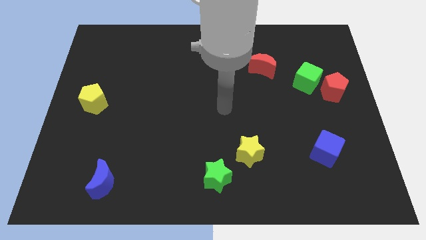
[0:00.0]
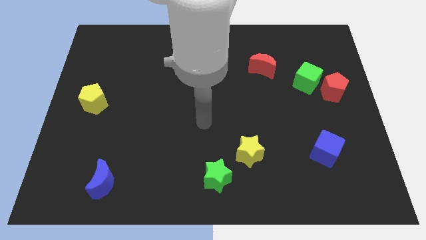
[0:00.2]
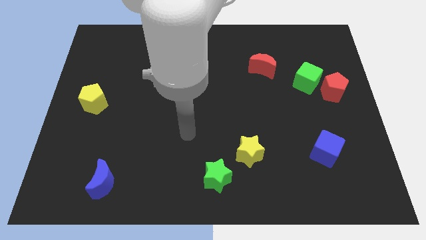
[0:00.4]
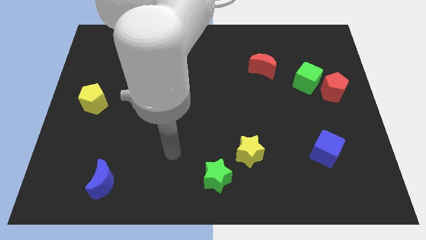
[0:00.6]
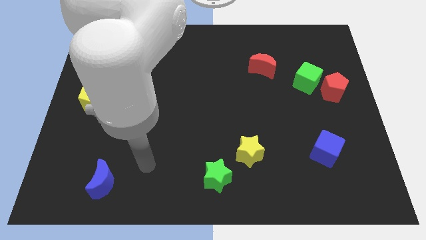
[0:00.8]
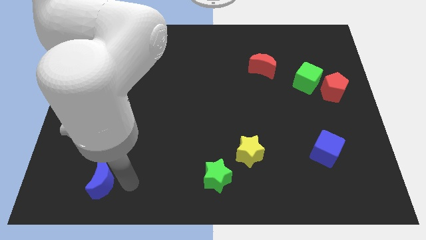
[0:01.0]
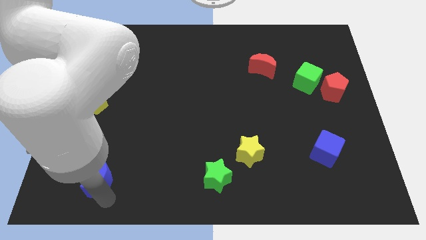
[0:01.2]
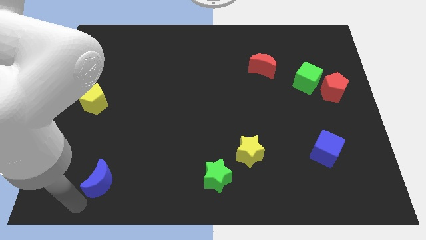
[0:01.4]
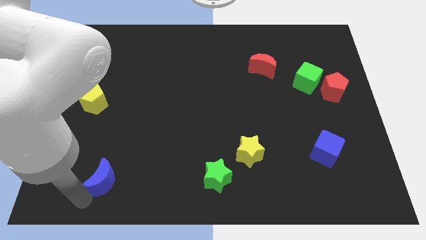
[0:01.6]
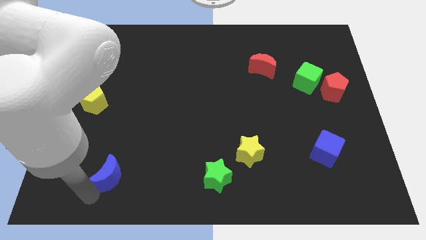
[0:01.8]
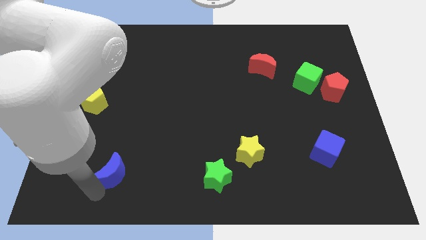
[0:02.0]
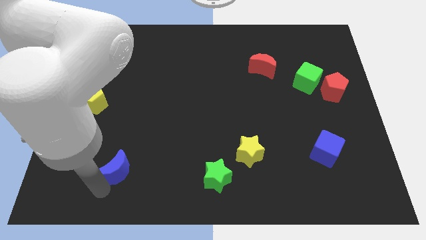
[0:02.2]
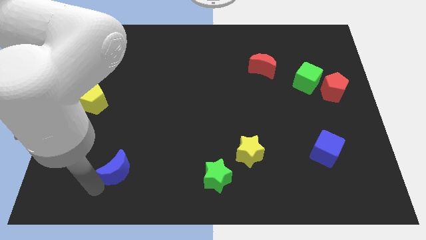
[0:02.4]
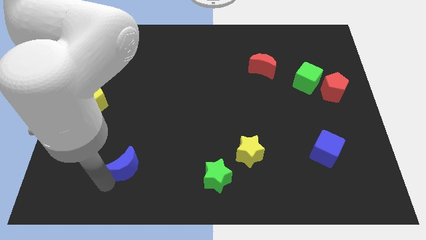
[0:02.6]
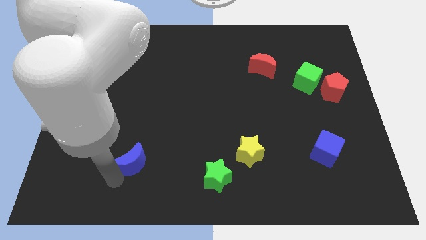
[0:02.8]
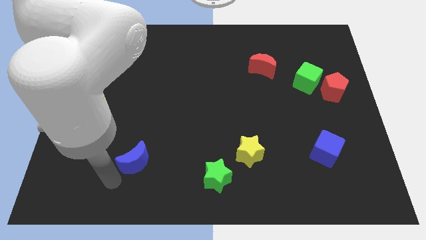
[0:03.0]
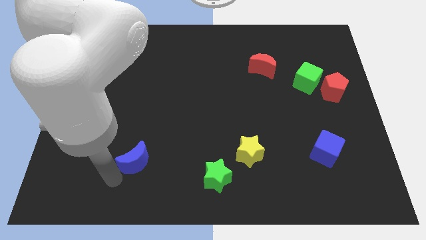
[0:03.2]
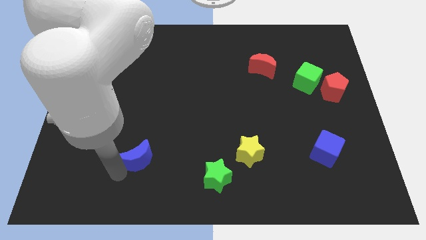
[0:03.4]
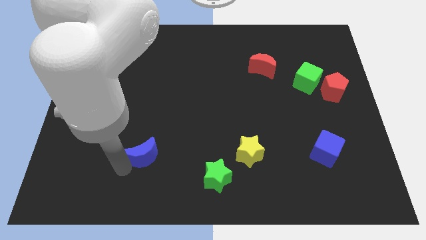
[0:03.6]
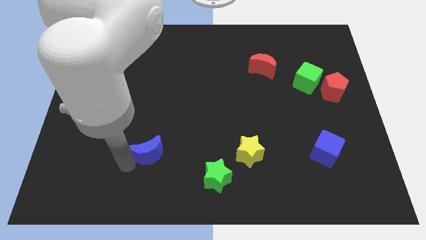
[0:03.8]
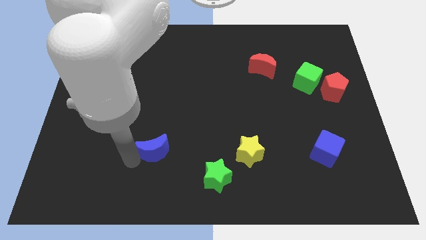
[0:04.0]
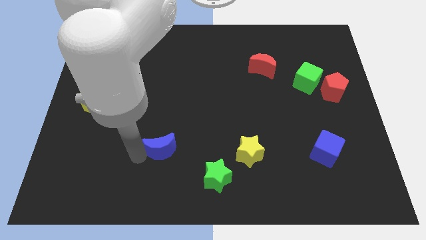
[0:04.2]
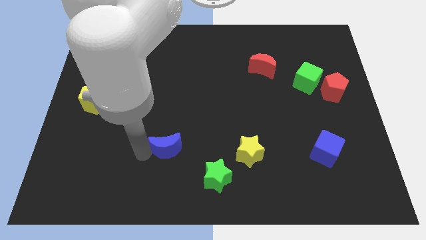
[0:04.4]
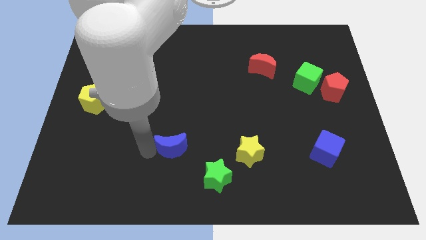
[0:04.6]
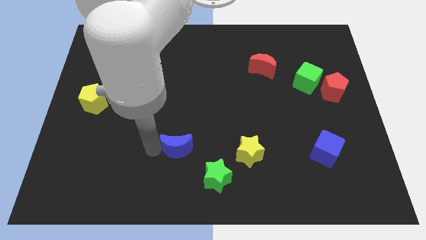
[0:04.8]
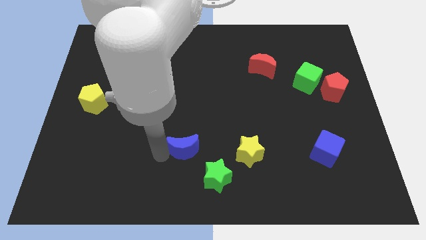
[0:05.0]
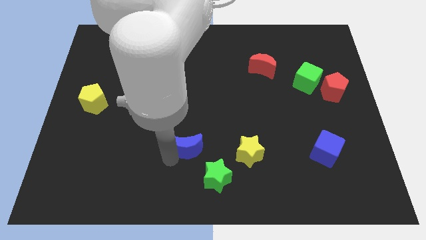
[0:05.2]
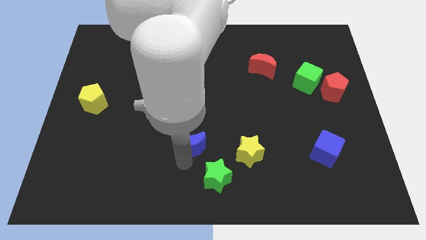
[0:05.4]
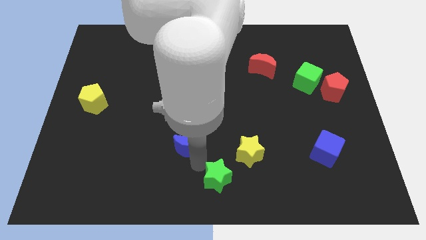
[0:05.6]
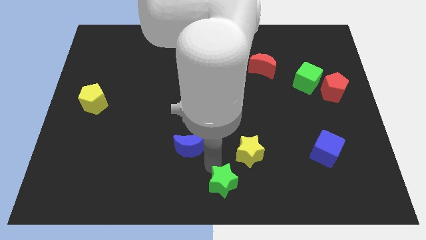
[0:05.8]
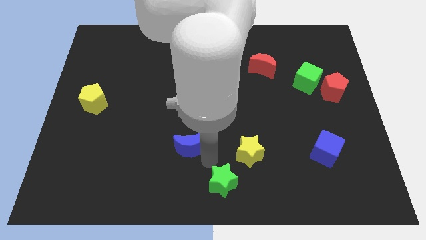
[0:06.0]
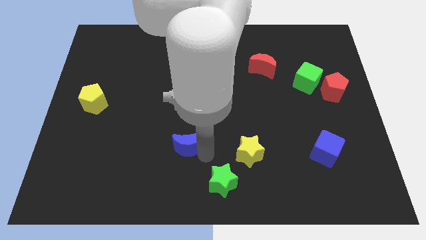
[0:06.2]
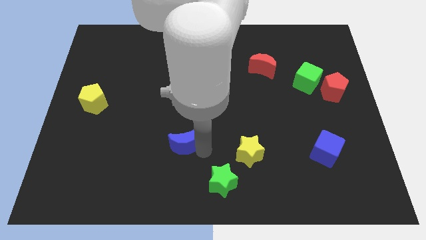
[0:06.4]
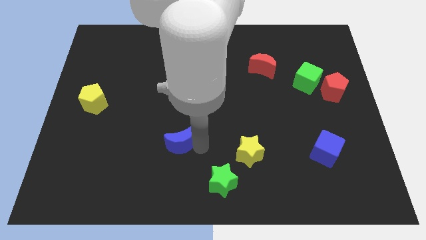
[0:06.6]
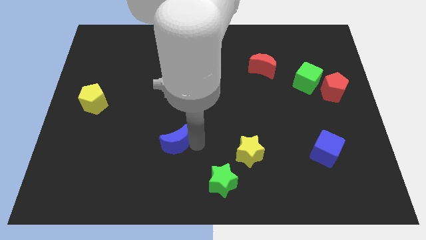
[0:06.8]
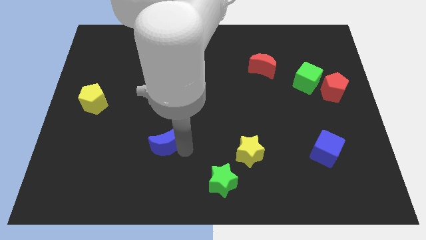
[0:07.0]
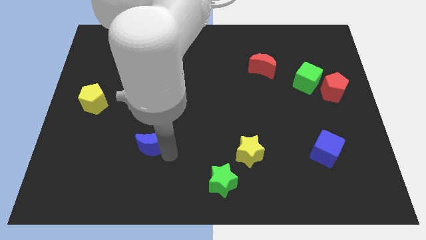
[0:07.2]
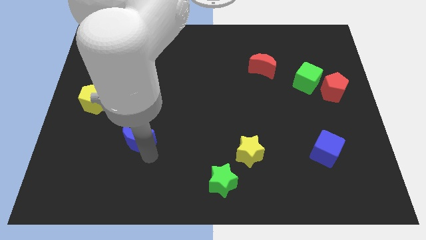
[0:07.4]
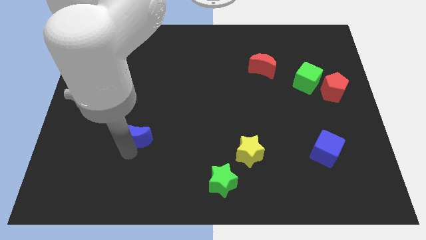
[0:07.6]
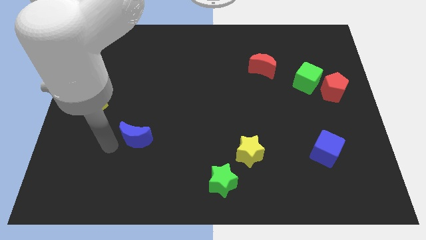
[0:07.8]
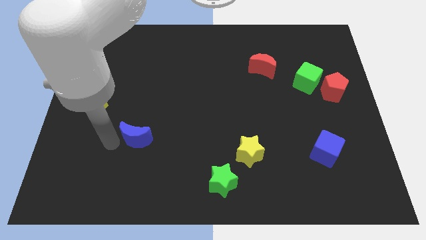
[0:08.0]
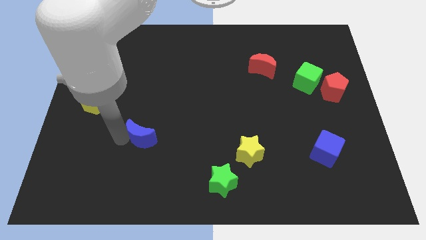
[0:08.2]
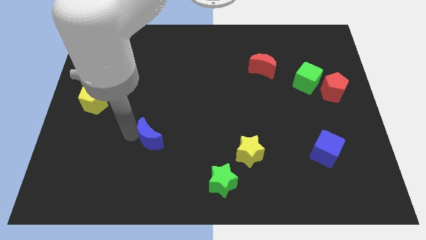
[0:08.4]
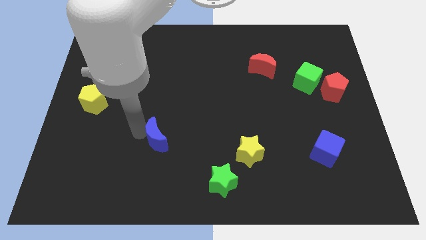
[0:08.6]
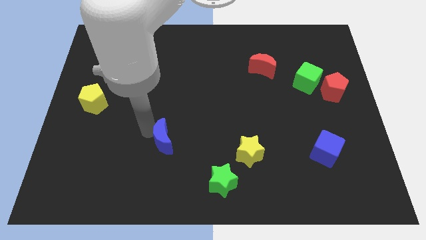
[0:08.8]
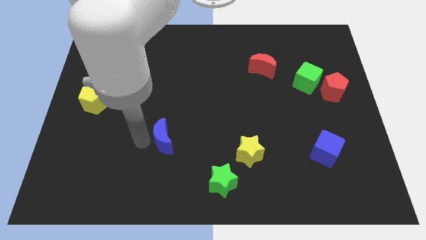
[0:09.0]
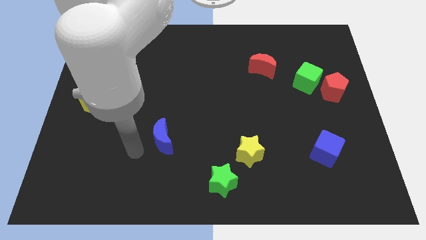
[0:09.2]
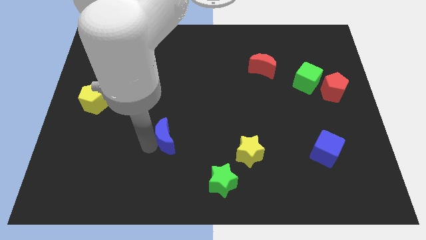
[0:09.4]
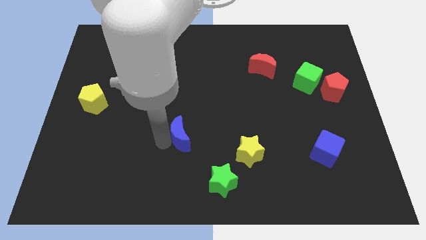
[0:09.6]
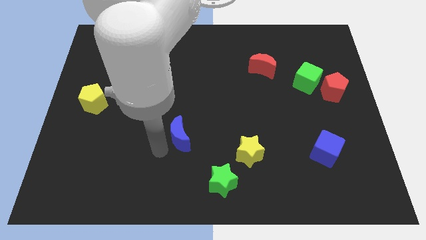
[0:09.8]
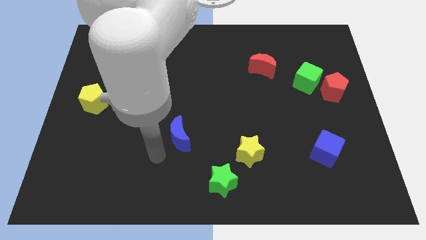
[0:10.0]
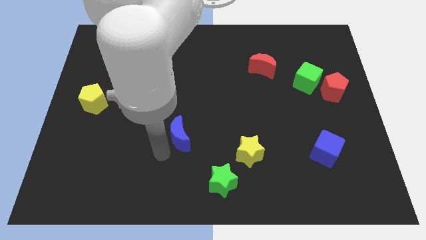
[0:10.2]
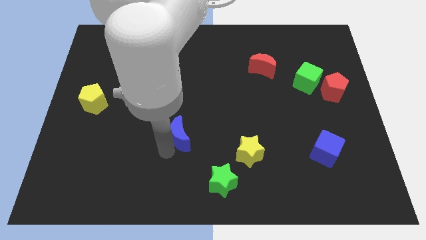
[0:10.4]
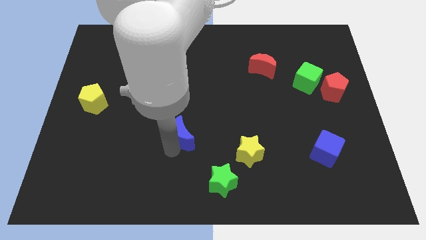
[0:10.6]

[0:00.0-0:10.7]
push the blue moon to the middle of the board
